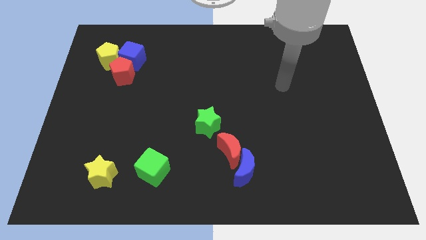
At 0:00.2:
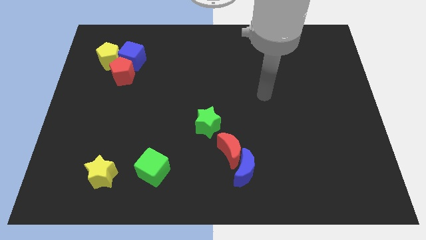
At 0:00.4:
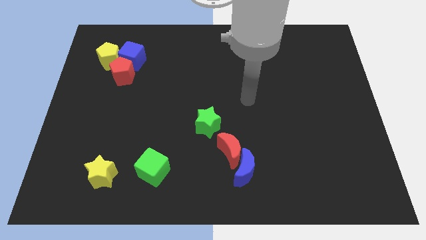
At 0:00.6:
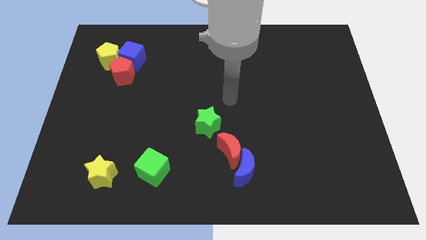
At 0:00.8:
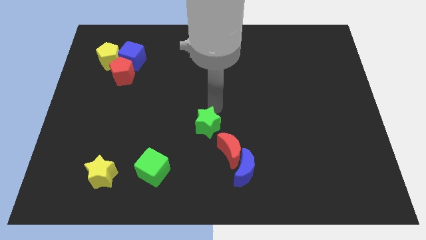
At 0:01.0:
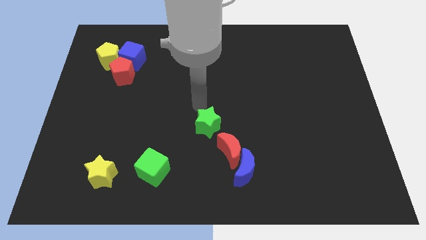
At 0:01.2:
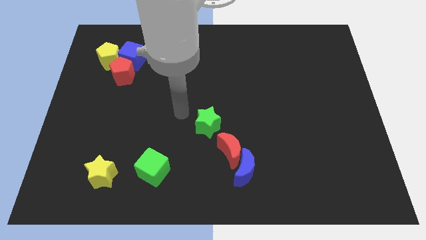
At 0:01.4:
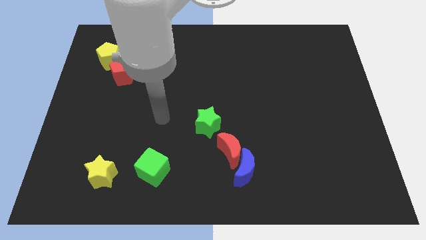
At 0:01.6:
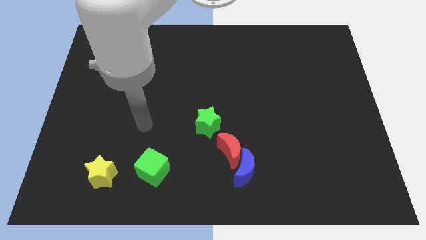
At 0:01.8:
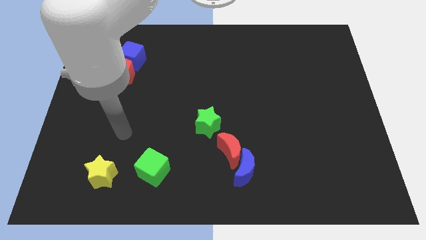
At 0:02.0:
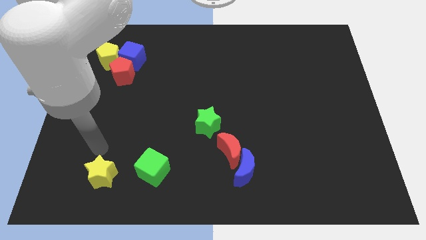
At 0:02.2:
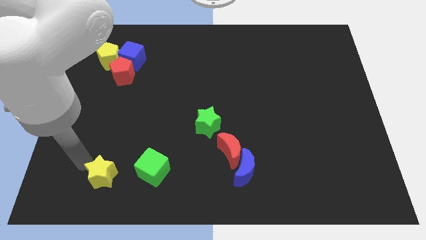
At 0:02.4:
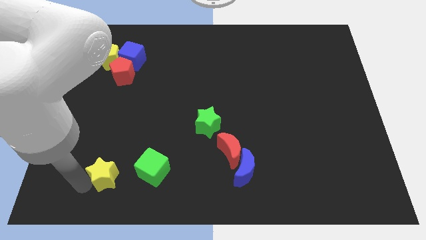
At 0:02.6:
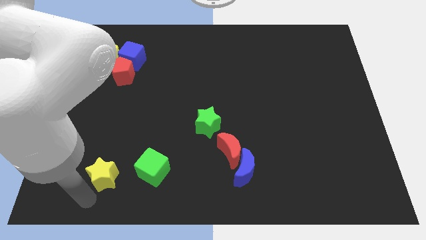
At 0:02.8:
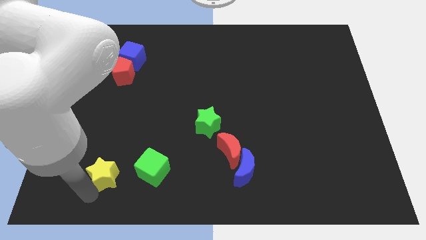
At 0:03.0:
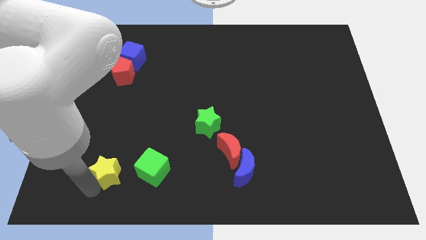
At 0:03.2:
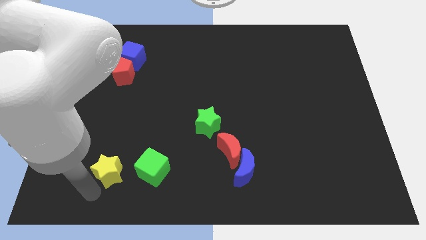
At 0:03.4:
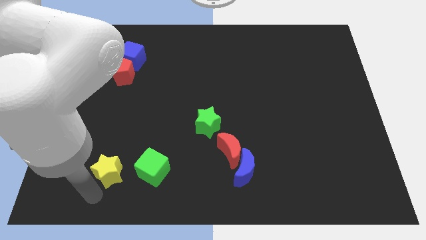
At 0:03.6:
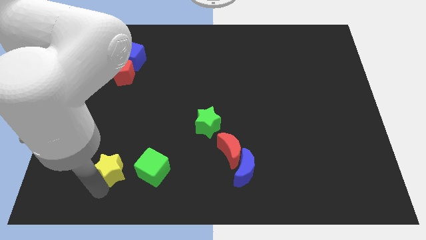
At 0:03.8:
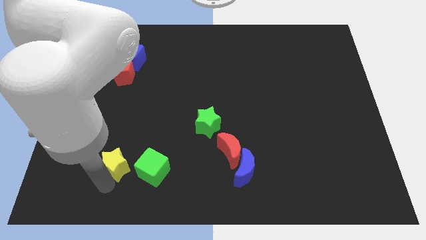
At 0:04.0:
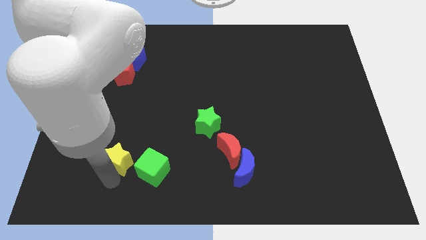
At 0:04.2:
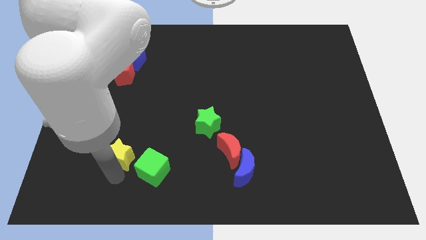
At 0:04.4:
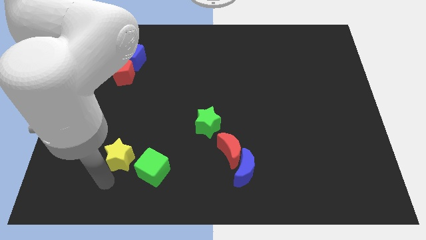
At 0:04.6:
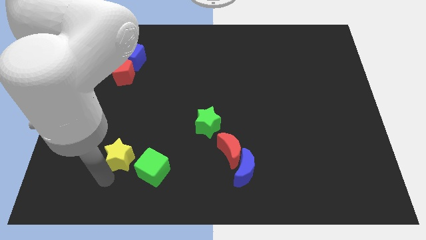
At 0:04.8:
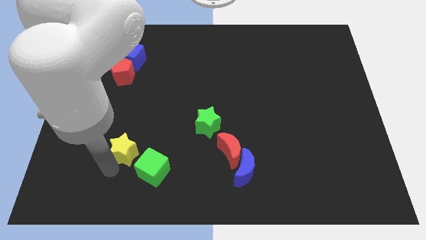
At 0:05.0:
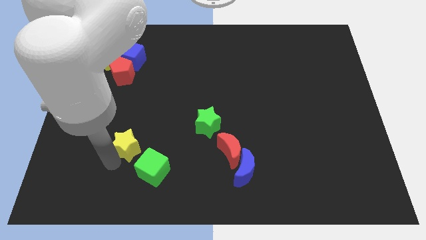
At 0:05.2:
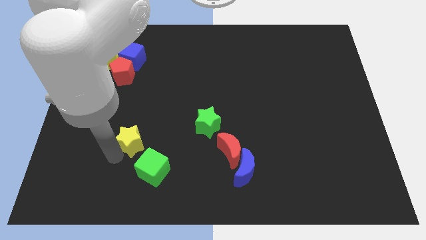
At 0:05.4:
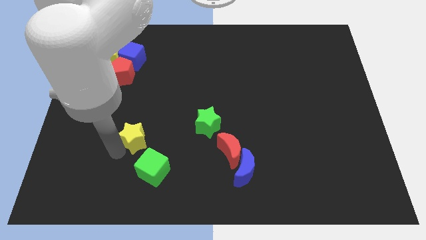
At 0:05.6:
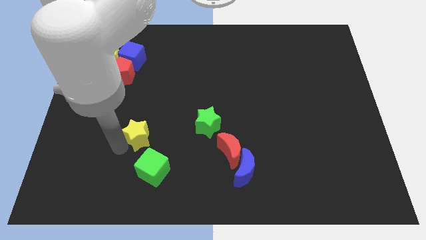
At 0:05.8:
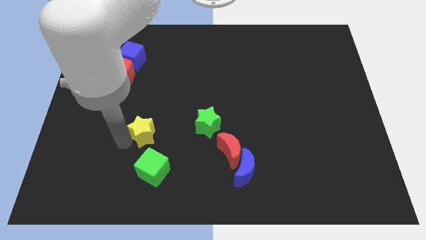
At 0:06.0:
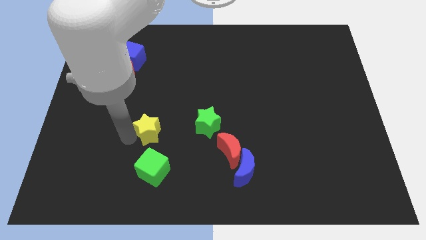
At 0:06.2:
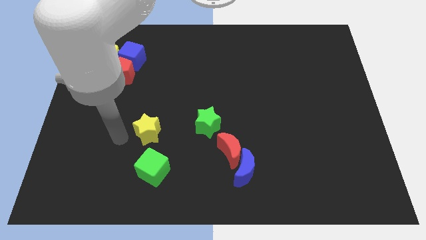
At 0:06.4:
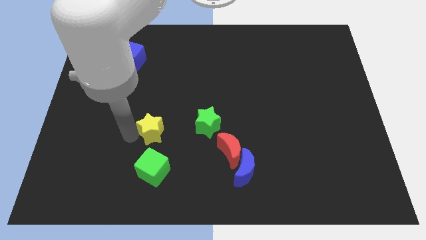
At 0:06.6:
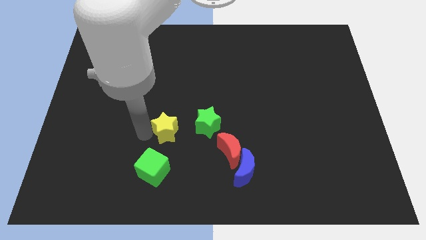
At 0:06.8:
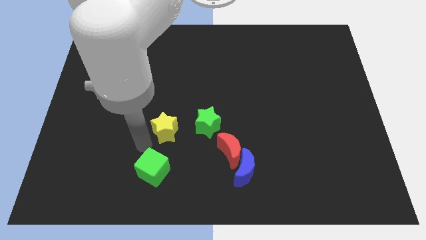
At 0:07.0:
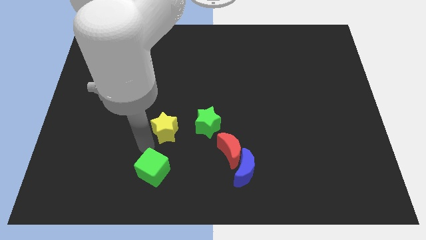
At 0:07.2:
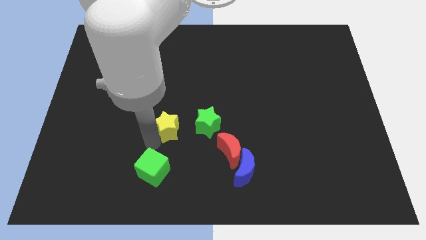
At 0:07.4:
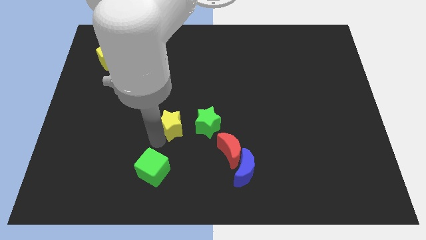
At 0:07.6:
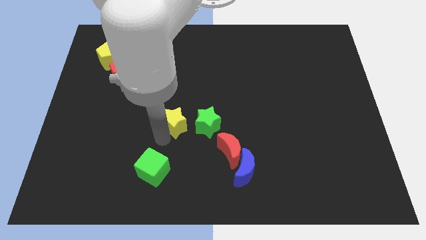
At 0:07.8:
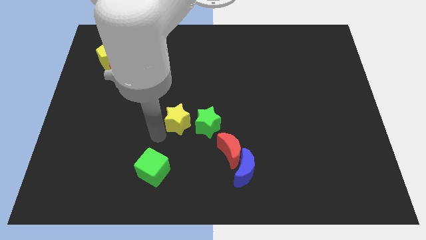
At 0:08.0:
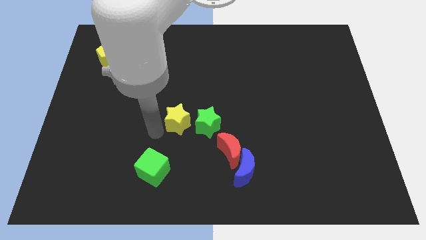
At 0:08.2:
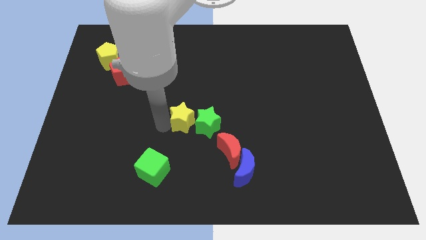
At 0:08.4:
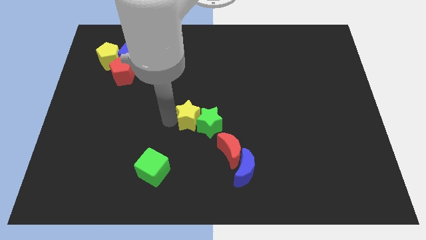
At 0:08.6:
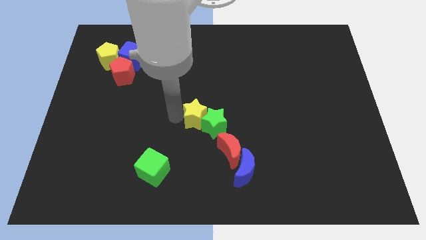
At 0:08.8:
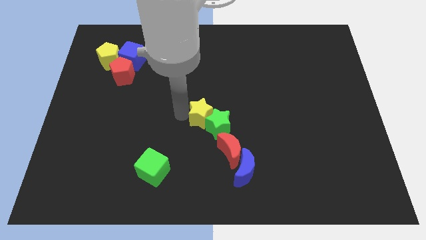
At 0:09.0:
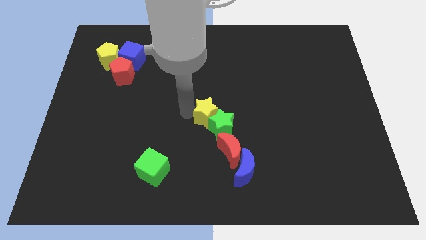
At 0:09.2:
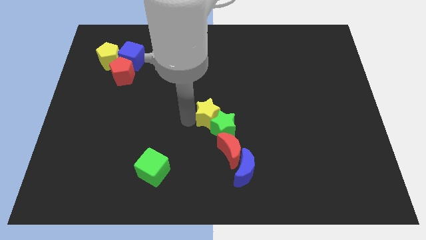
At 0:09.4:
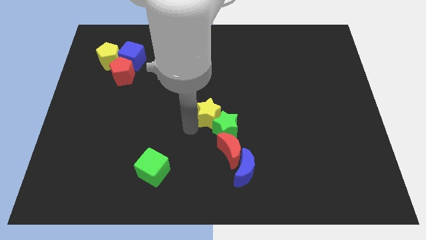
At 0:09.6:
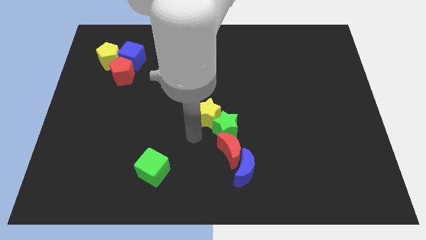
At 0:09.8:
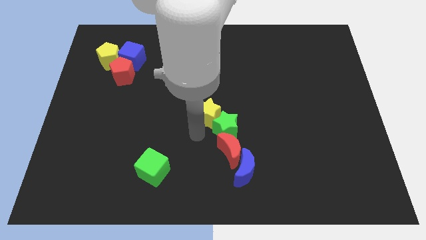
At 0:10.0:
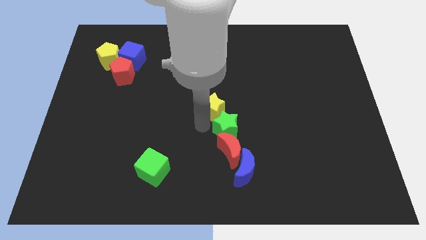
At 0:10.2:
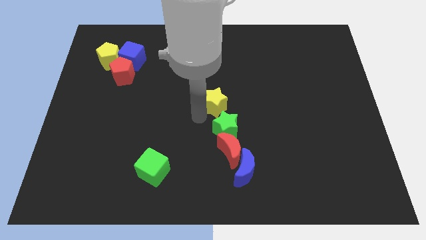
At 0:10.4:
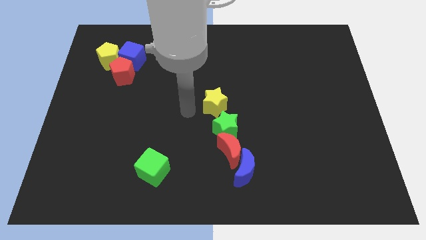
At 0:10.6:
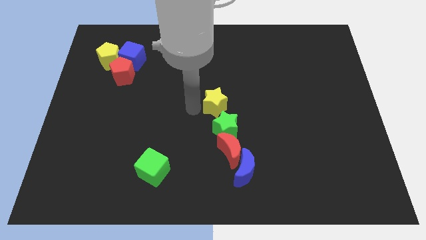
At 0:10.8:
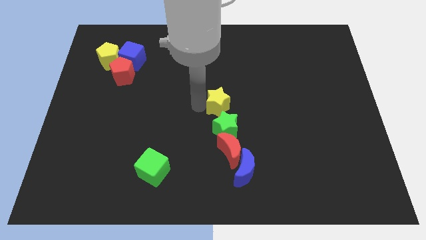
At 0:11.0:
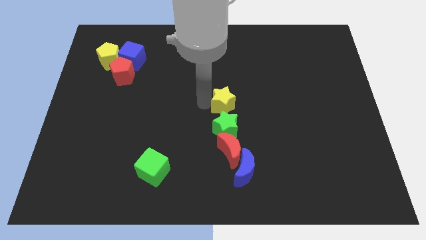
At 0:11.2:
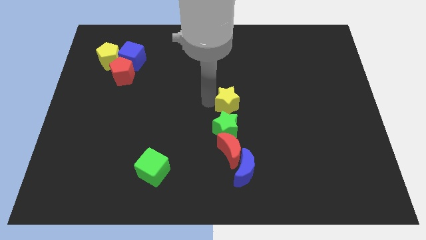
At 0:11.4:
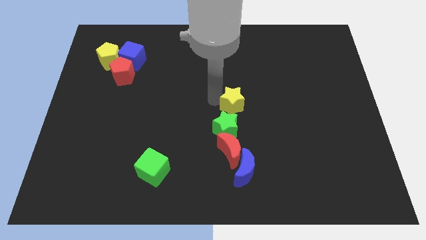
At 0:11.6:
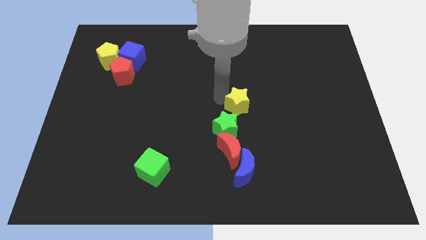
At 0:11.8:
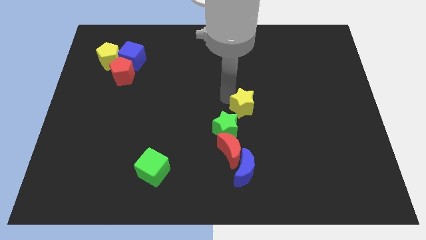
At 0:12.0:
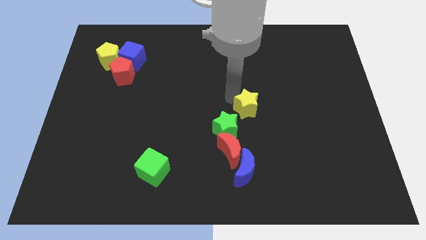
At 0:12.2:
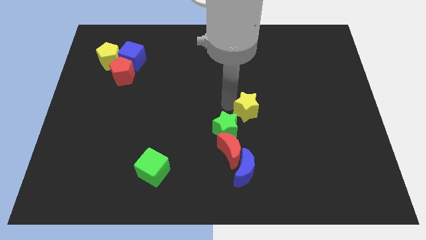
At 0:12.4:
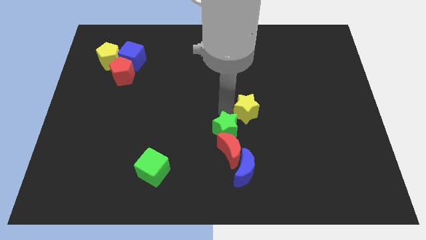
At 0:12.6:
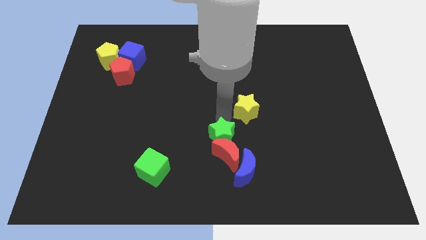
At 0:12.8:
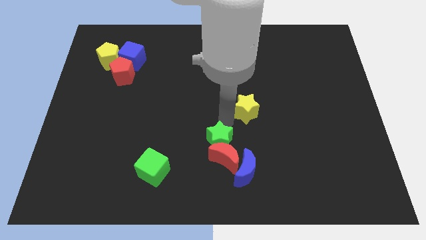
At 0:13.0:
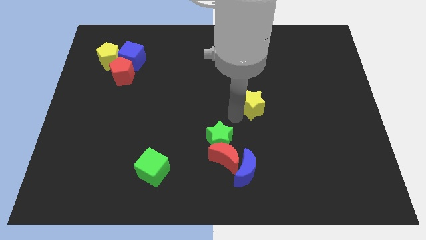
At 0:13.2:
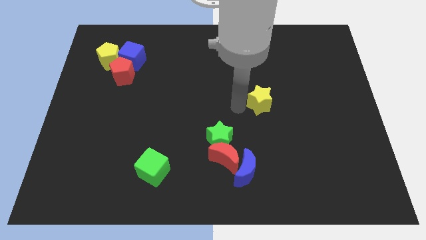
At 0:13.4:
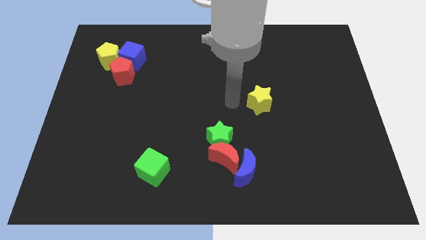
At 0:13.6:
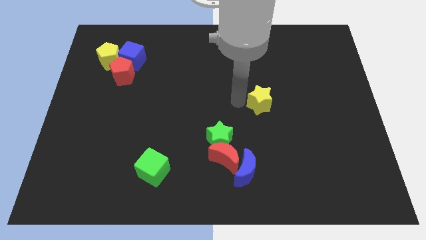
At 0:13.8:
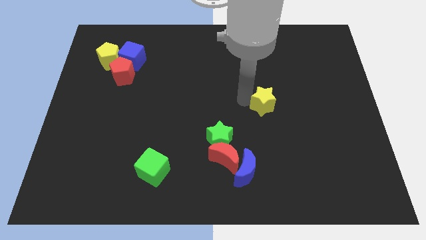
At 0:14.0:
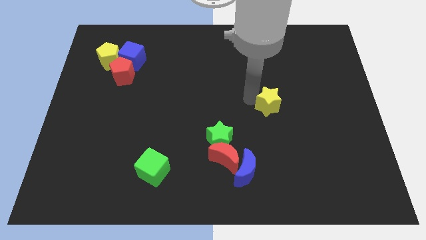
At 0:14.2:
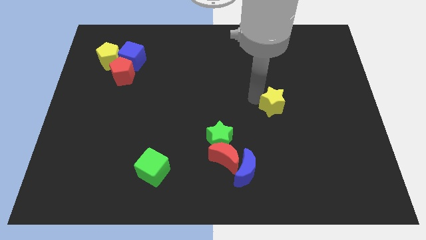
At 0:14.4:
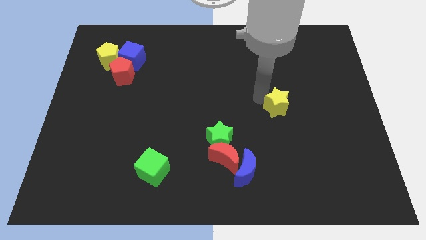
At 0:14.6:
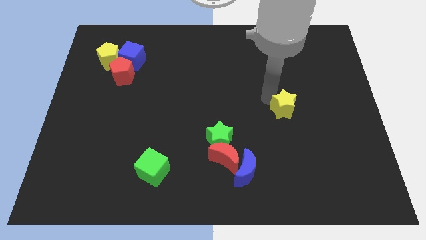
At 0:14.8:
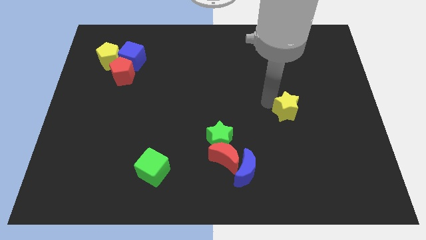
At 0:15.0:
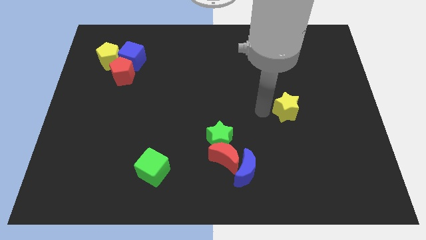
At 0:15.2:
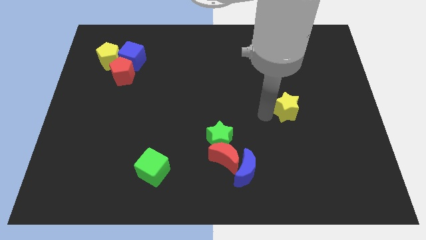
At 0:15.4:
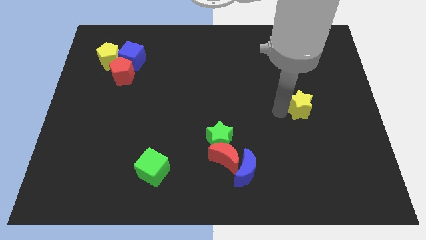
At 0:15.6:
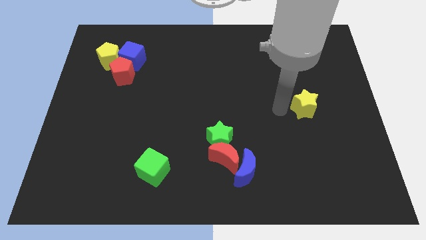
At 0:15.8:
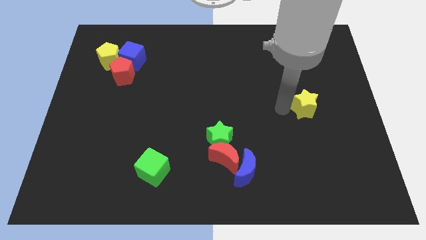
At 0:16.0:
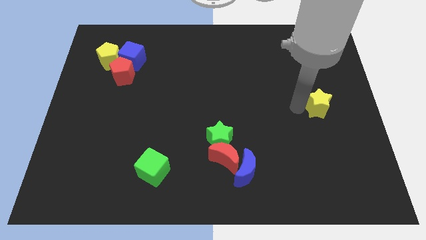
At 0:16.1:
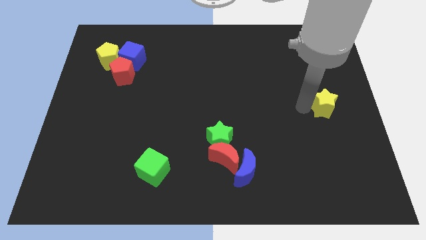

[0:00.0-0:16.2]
push the yellow star to the center right
